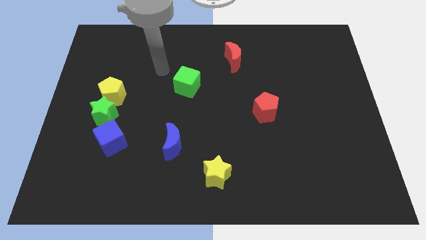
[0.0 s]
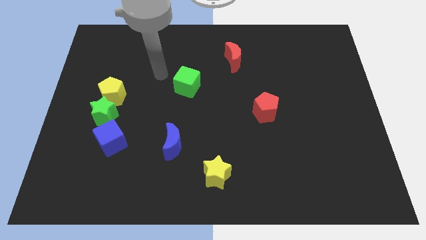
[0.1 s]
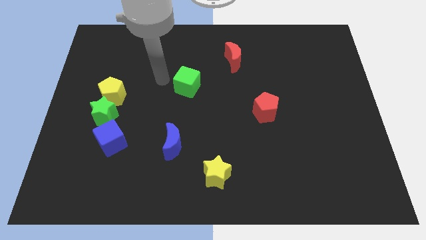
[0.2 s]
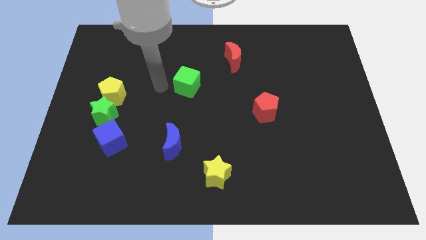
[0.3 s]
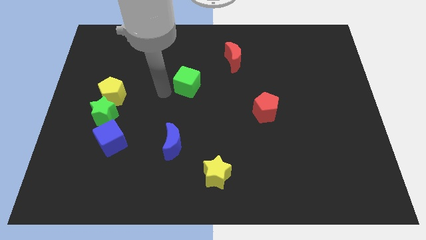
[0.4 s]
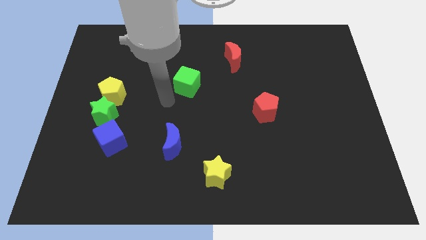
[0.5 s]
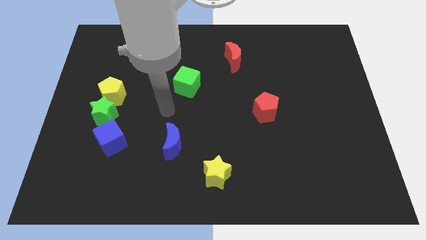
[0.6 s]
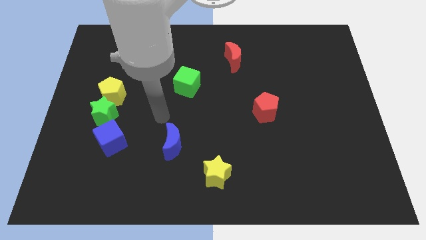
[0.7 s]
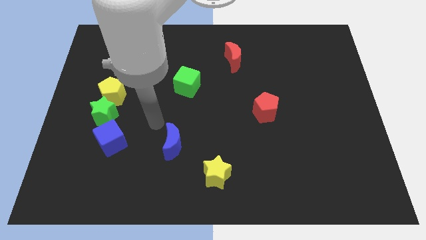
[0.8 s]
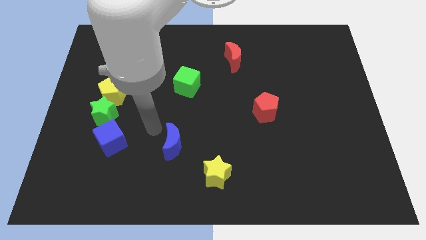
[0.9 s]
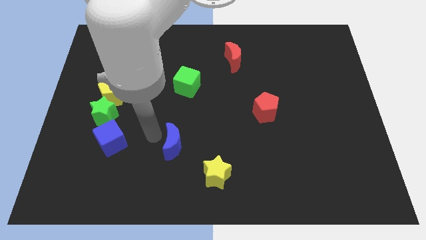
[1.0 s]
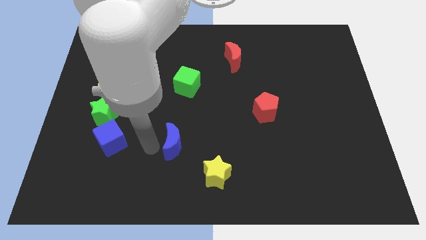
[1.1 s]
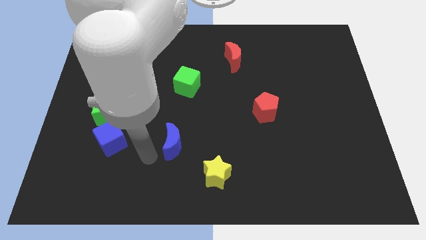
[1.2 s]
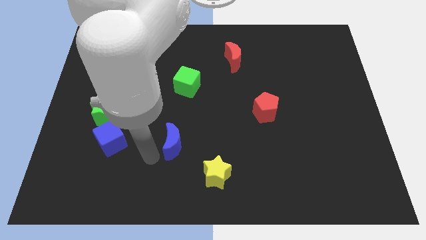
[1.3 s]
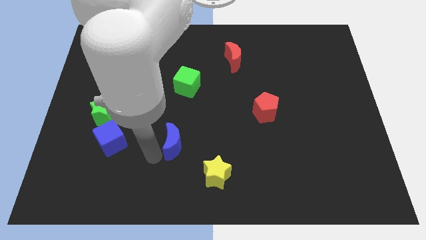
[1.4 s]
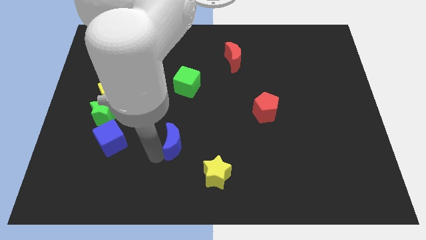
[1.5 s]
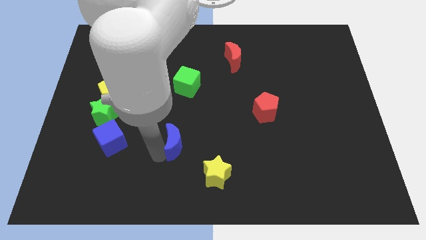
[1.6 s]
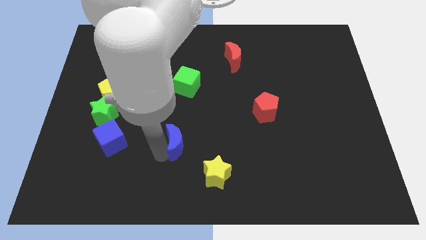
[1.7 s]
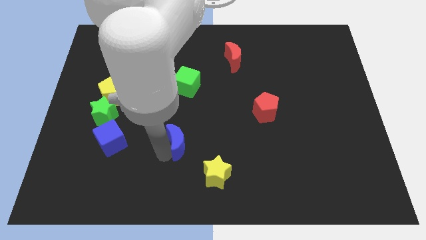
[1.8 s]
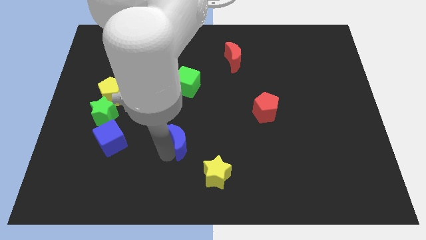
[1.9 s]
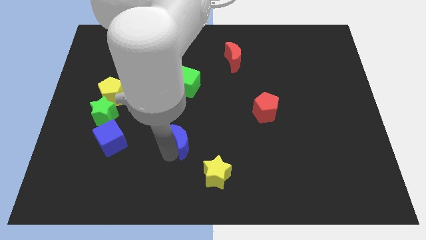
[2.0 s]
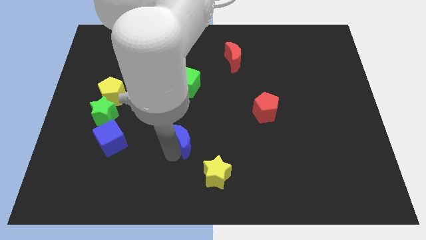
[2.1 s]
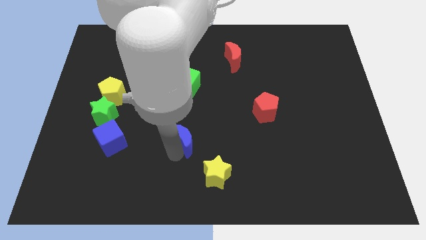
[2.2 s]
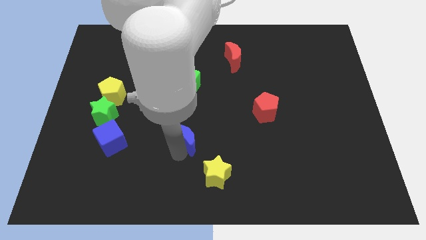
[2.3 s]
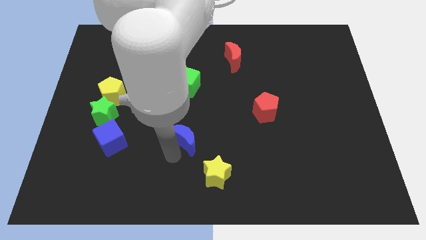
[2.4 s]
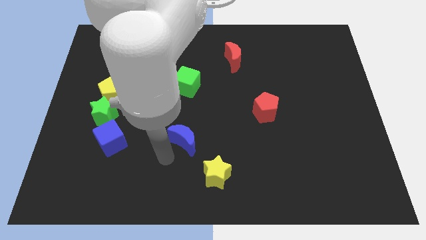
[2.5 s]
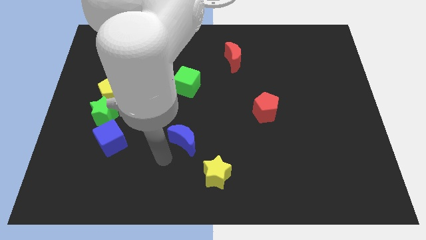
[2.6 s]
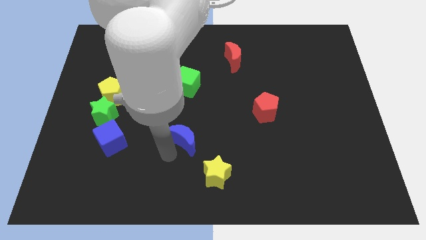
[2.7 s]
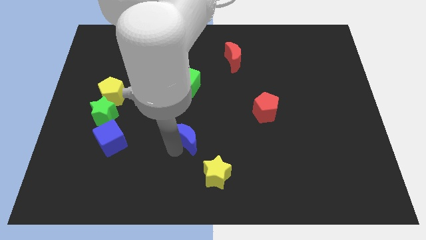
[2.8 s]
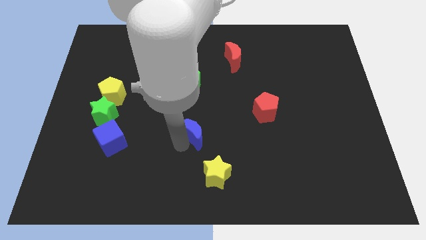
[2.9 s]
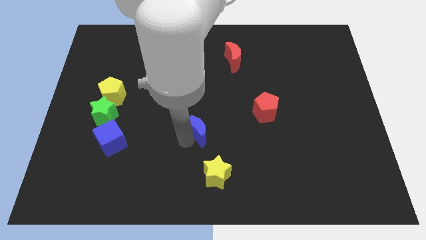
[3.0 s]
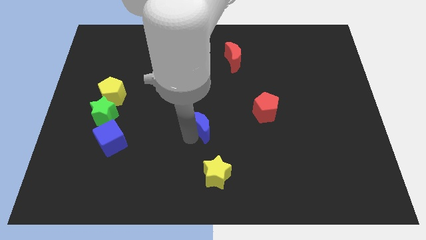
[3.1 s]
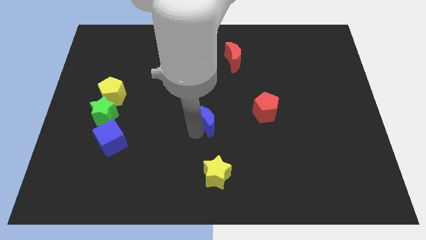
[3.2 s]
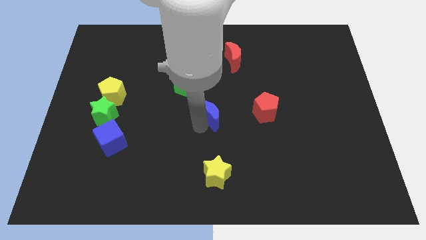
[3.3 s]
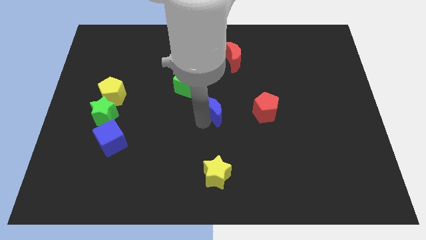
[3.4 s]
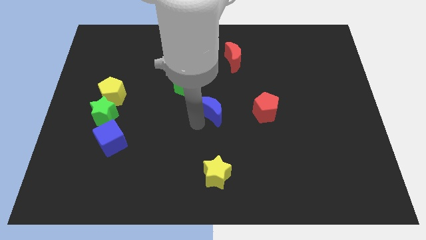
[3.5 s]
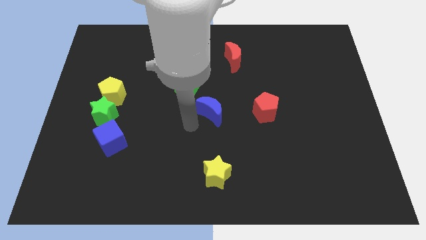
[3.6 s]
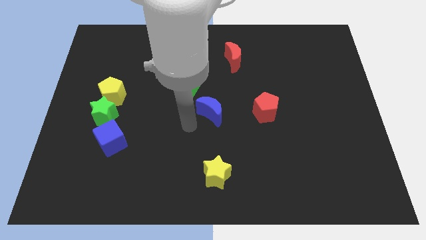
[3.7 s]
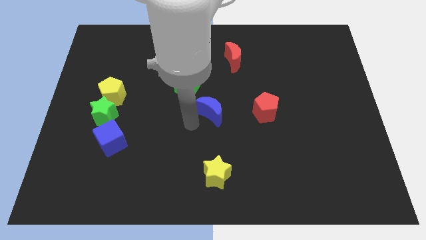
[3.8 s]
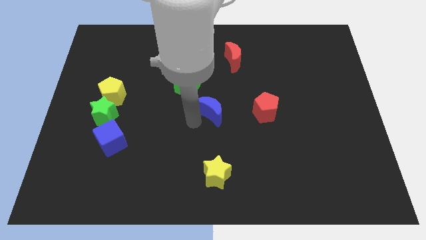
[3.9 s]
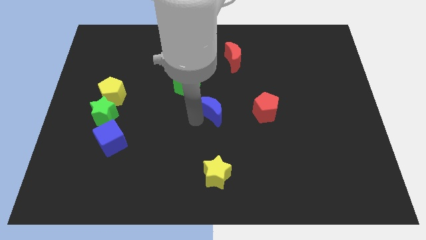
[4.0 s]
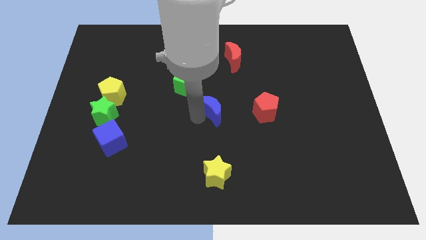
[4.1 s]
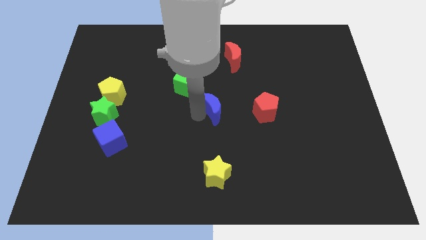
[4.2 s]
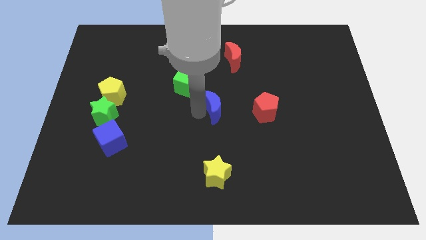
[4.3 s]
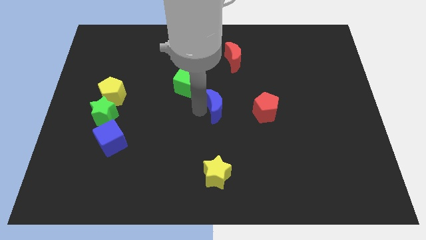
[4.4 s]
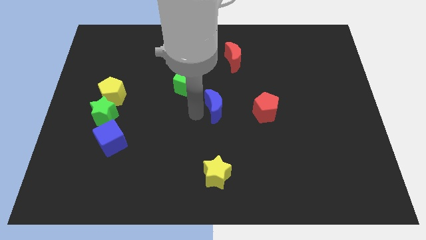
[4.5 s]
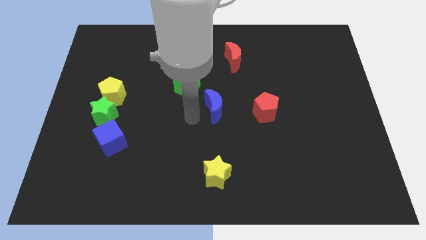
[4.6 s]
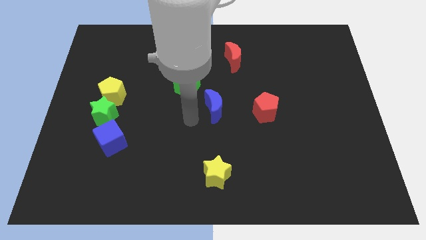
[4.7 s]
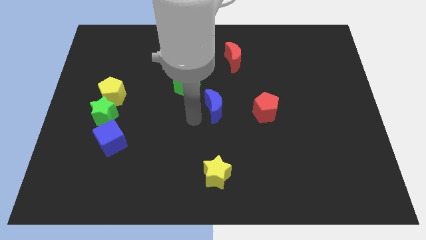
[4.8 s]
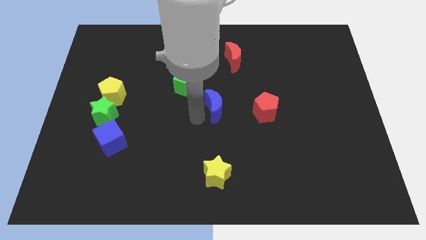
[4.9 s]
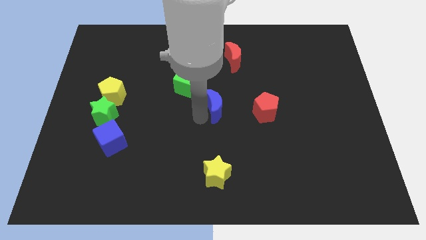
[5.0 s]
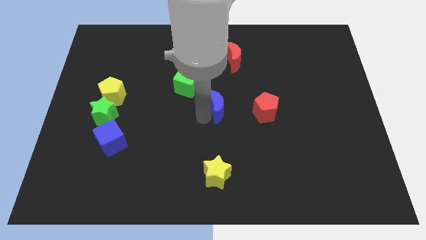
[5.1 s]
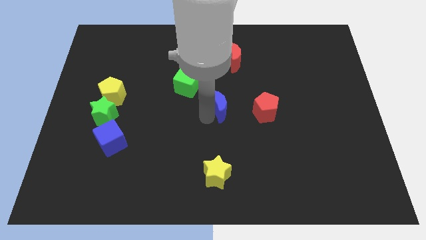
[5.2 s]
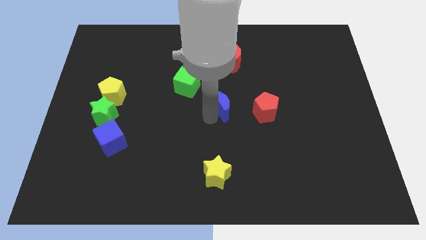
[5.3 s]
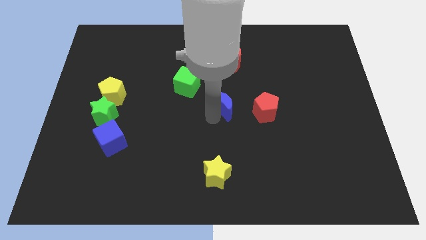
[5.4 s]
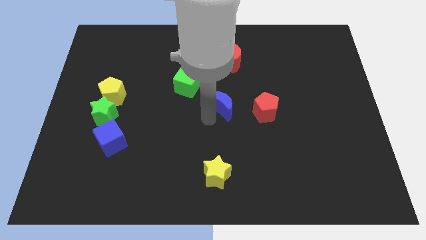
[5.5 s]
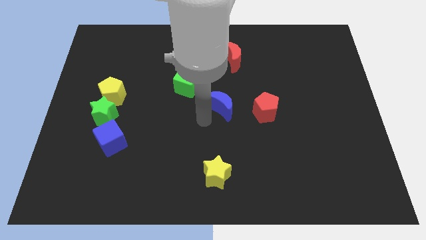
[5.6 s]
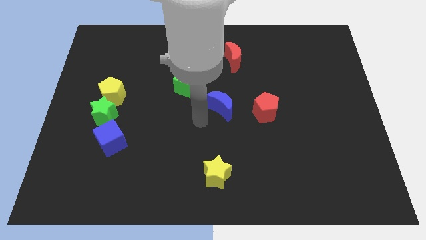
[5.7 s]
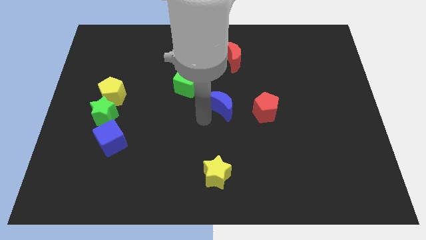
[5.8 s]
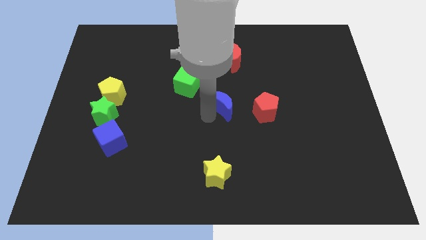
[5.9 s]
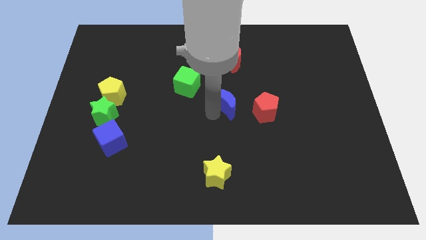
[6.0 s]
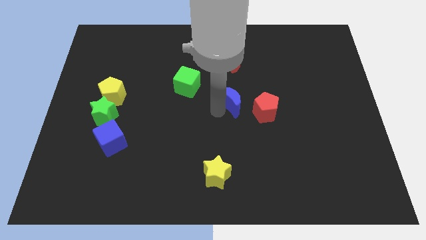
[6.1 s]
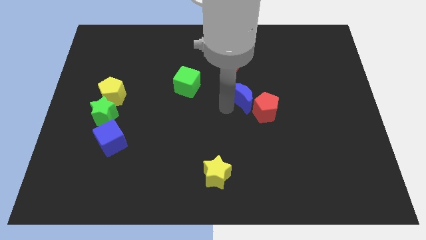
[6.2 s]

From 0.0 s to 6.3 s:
slide the blue moon diagonally up and to the right

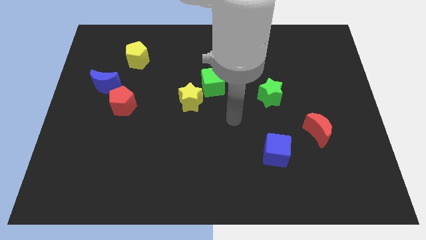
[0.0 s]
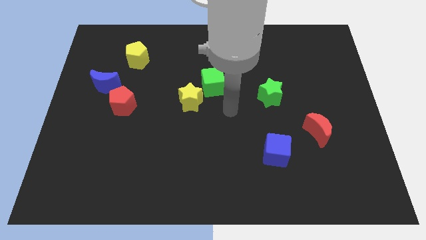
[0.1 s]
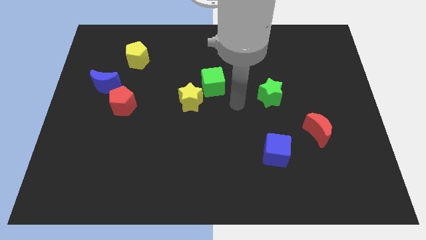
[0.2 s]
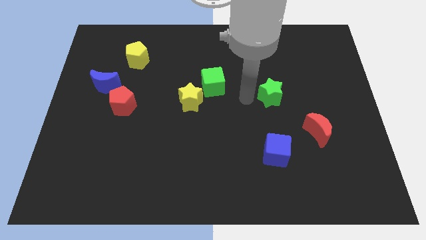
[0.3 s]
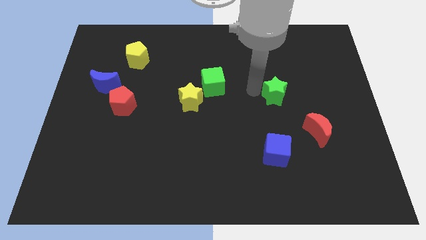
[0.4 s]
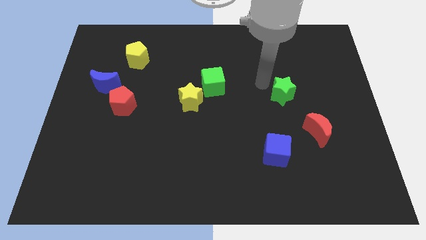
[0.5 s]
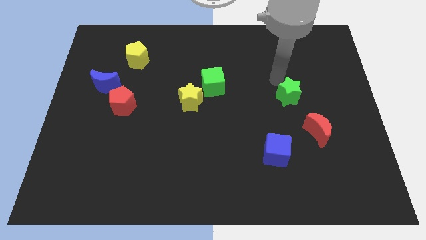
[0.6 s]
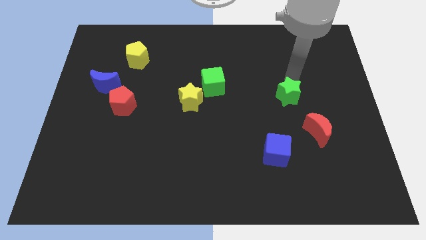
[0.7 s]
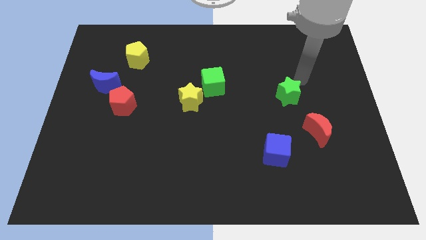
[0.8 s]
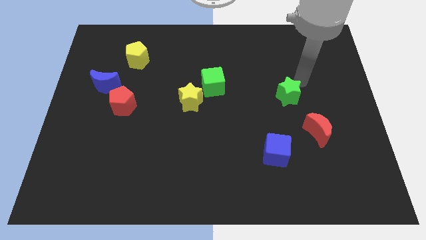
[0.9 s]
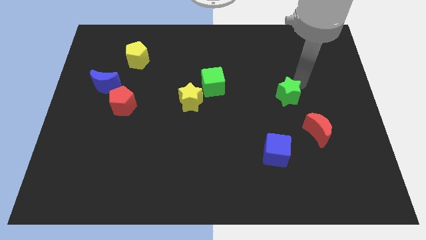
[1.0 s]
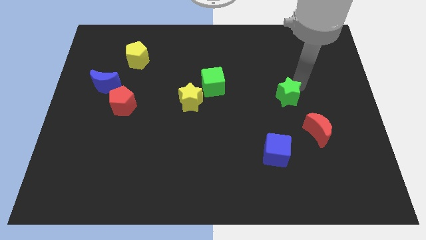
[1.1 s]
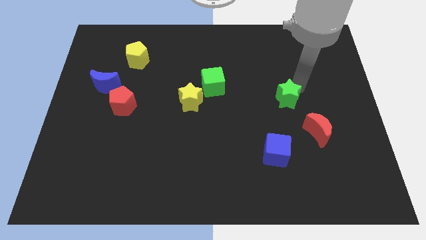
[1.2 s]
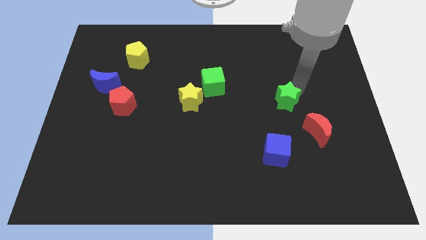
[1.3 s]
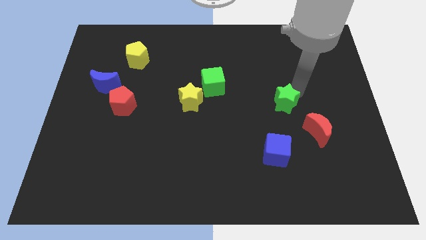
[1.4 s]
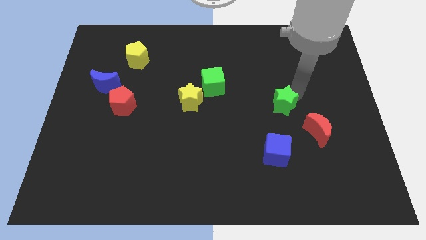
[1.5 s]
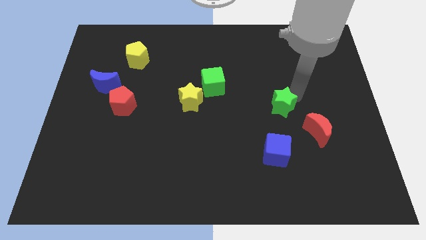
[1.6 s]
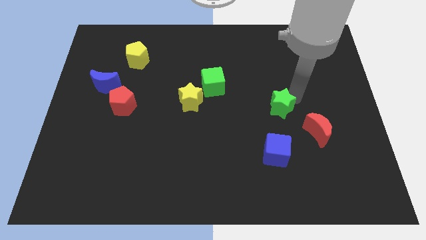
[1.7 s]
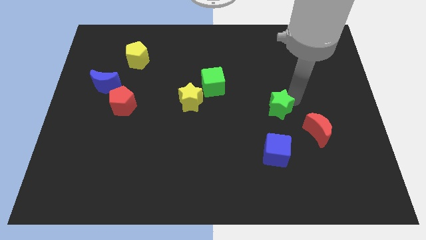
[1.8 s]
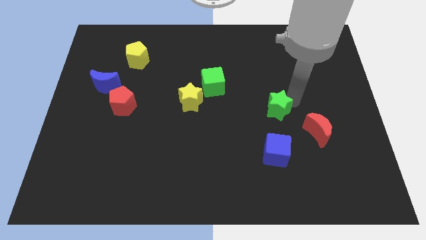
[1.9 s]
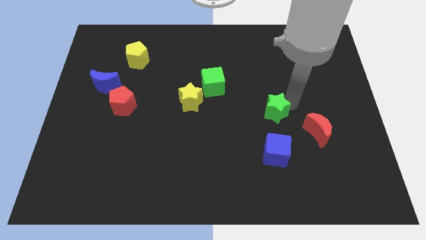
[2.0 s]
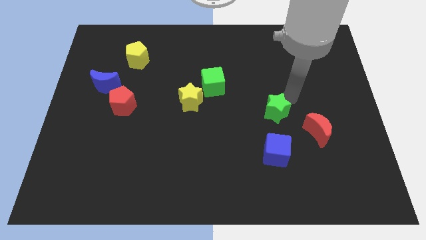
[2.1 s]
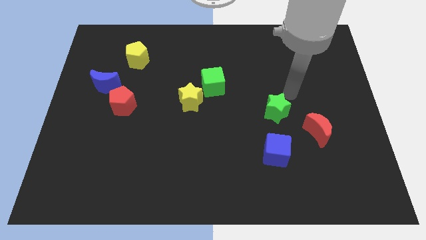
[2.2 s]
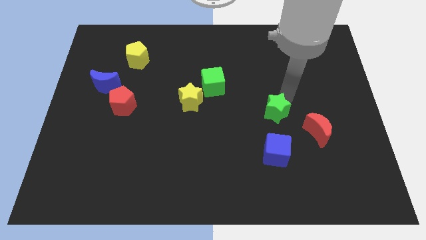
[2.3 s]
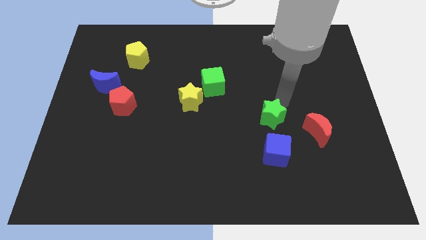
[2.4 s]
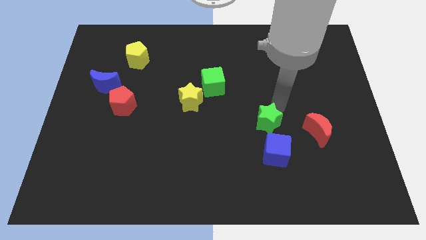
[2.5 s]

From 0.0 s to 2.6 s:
slide the green star downwards a little bit
